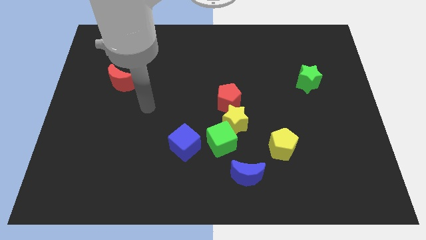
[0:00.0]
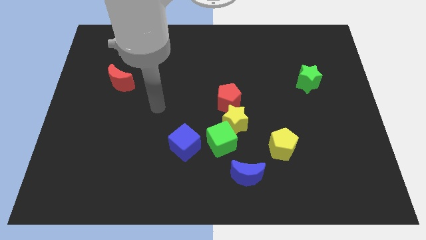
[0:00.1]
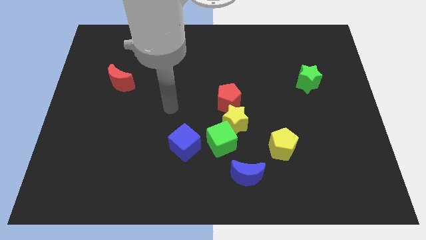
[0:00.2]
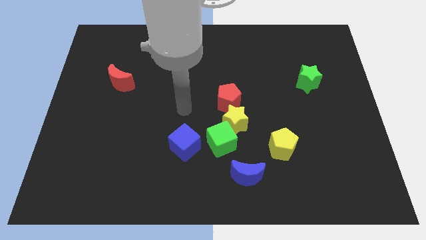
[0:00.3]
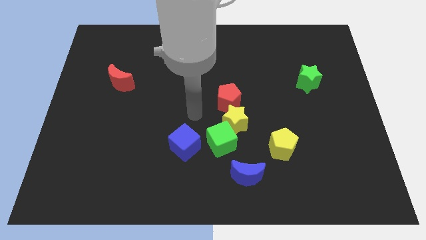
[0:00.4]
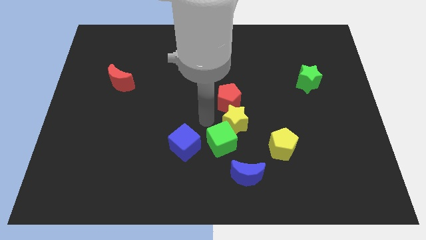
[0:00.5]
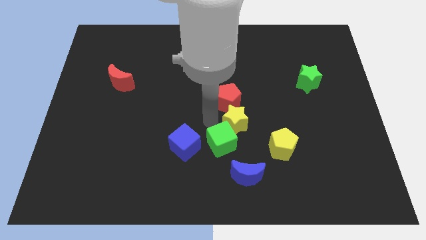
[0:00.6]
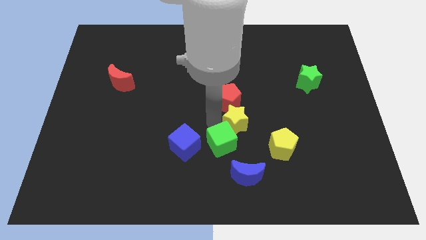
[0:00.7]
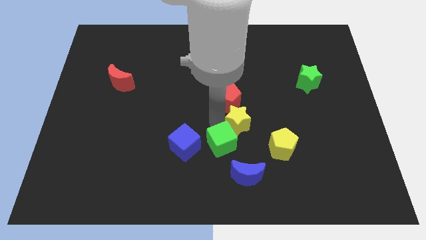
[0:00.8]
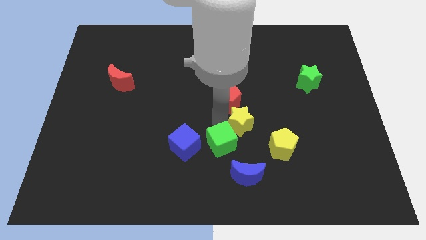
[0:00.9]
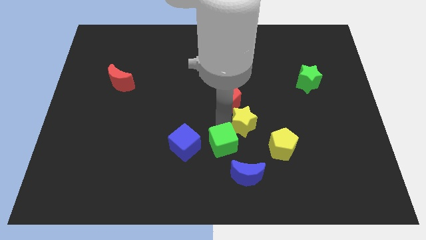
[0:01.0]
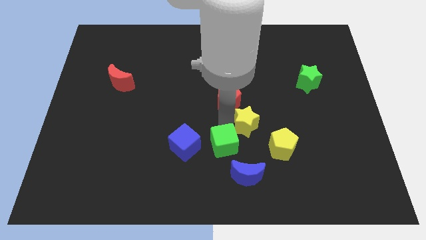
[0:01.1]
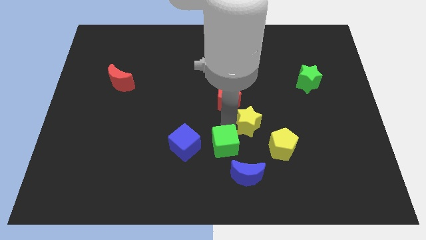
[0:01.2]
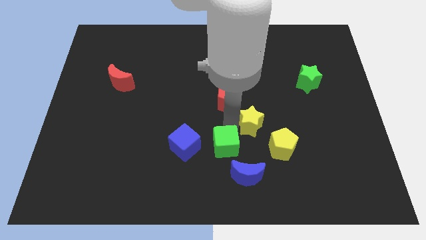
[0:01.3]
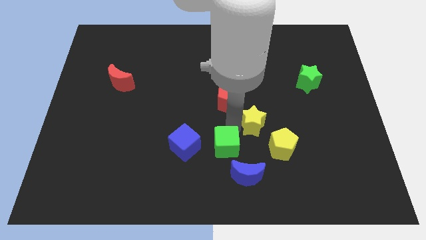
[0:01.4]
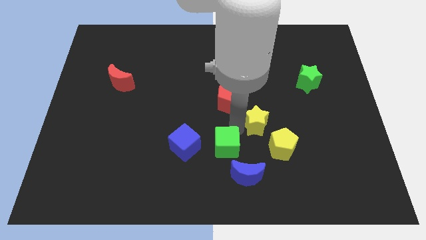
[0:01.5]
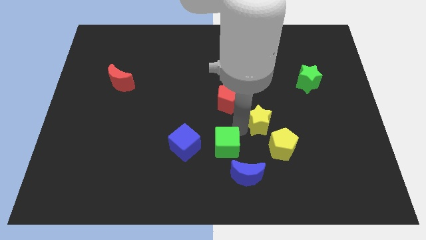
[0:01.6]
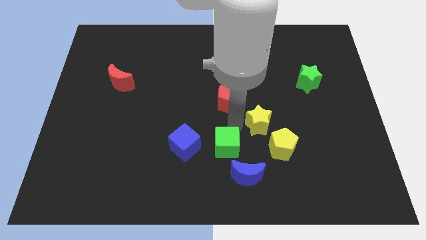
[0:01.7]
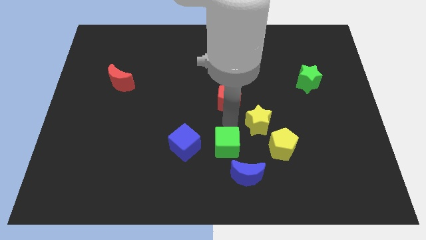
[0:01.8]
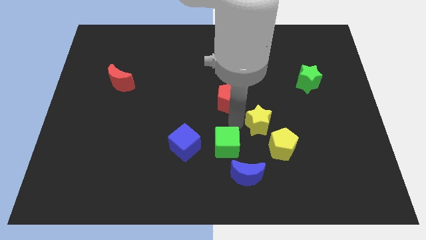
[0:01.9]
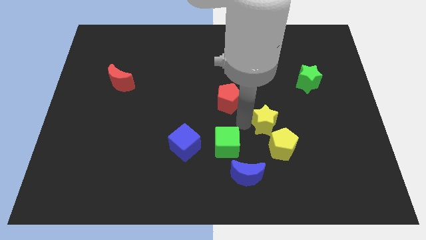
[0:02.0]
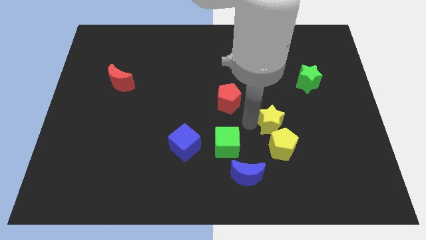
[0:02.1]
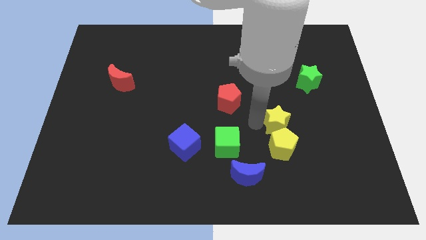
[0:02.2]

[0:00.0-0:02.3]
separate the yellow star from the green cube and red pentagon

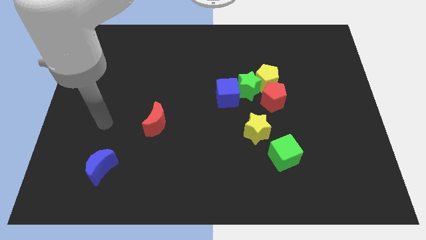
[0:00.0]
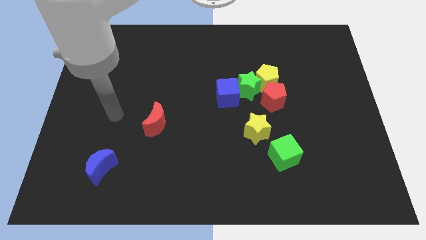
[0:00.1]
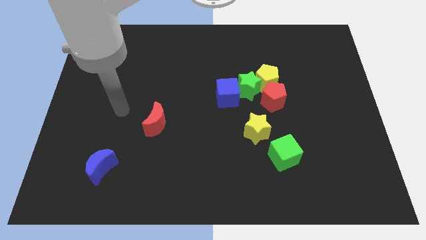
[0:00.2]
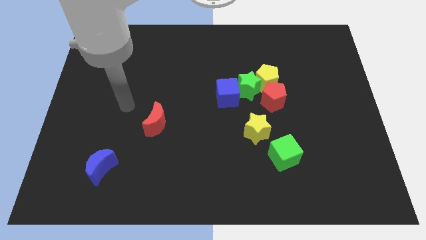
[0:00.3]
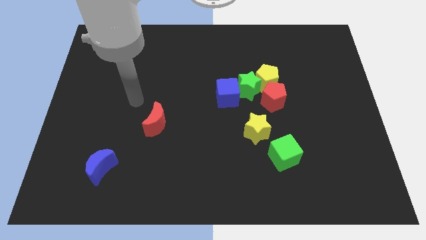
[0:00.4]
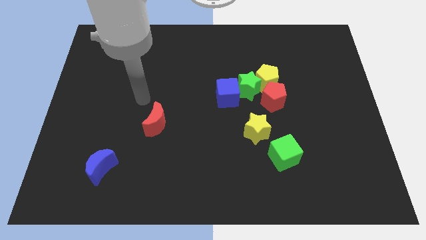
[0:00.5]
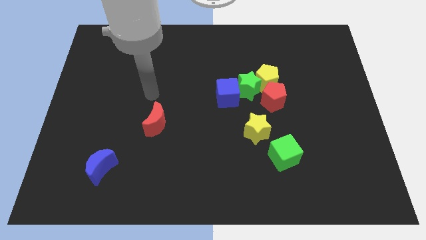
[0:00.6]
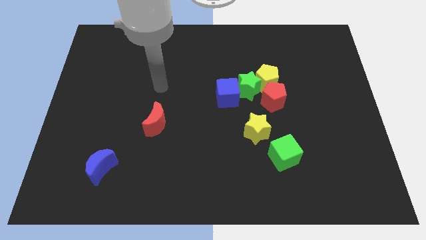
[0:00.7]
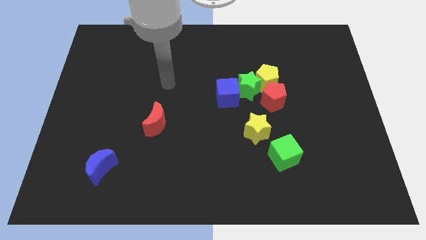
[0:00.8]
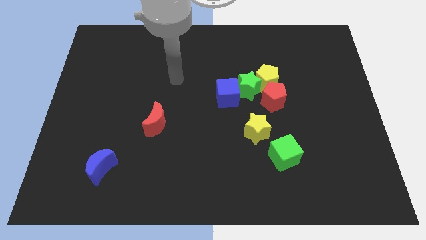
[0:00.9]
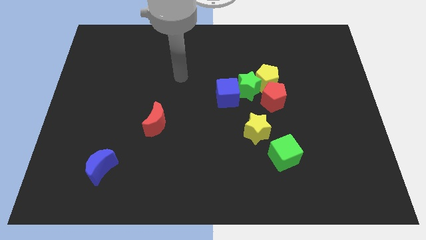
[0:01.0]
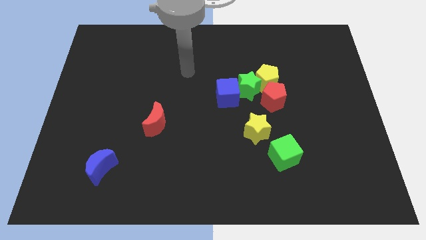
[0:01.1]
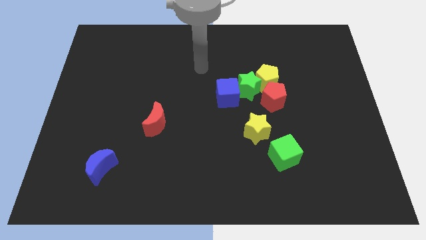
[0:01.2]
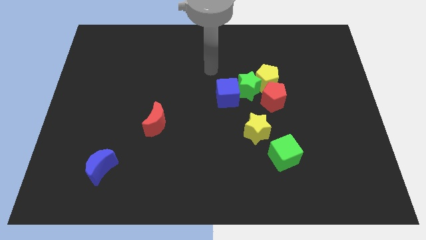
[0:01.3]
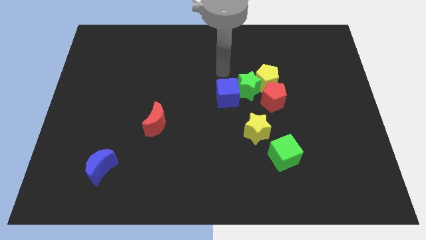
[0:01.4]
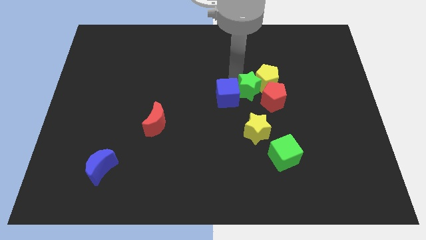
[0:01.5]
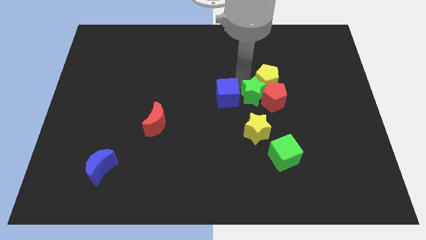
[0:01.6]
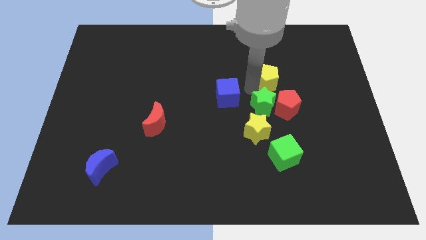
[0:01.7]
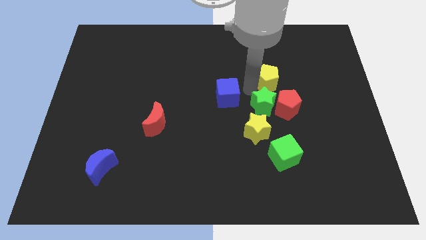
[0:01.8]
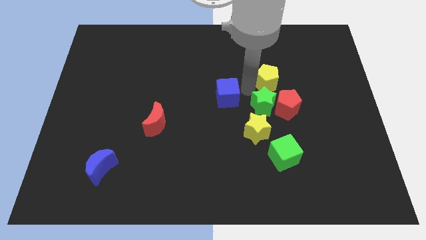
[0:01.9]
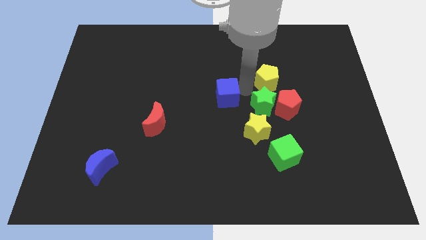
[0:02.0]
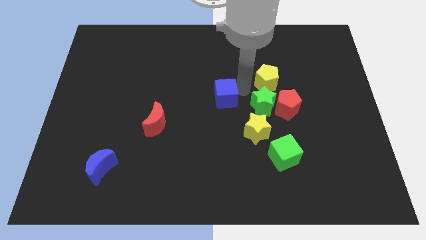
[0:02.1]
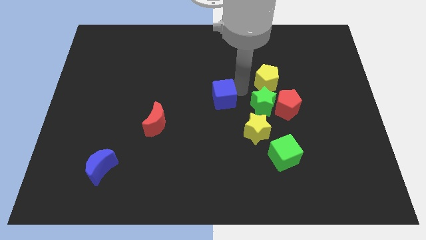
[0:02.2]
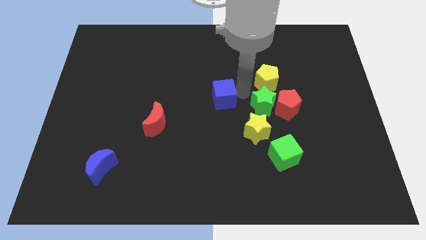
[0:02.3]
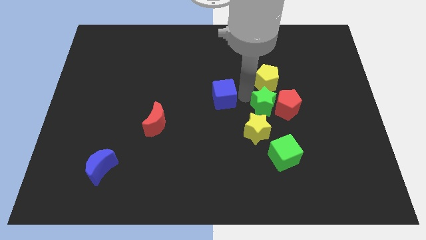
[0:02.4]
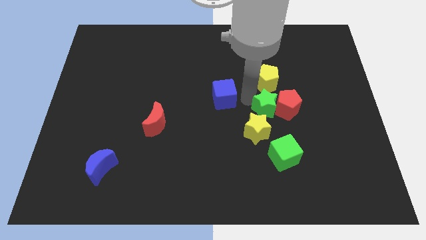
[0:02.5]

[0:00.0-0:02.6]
move the blue cube away from the green star

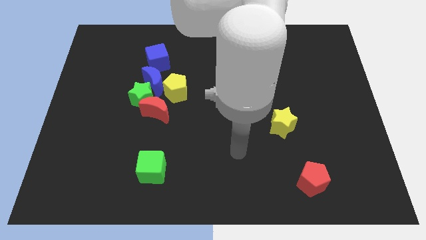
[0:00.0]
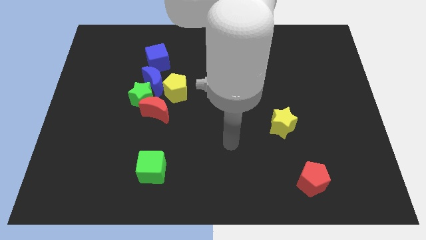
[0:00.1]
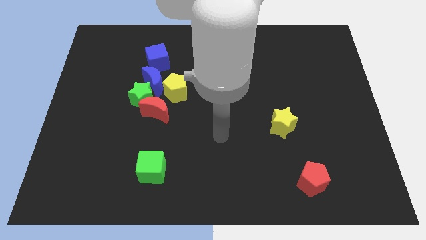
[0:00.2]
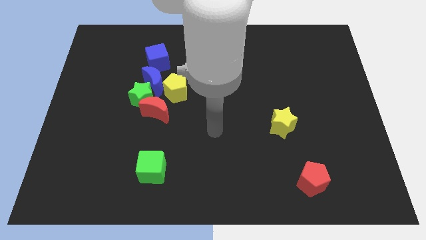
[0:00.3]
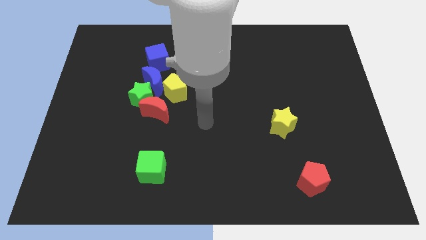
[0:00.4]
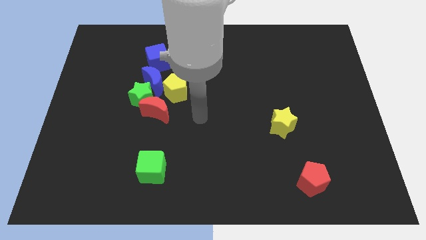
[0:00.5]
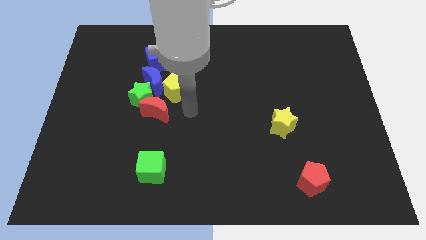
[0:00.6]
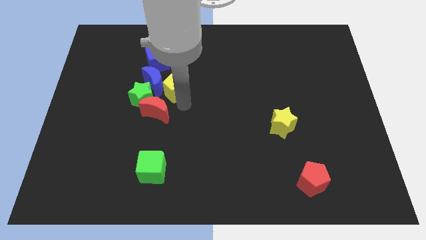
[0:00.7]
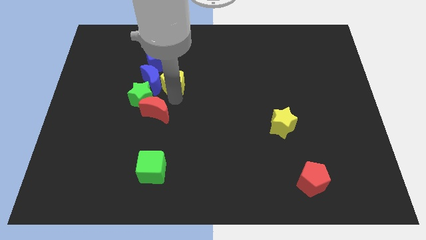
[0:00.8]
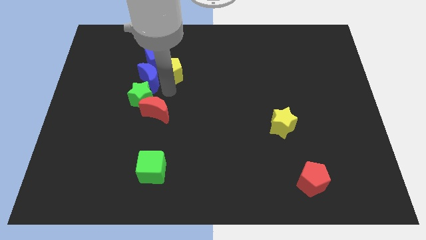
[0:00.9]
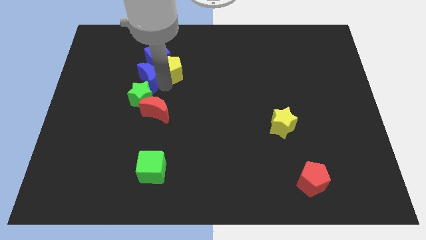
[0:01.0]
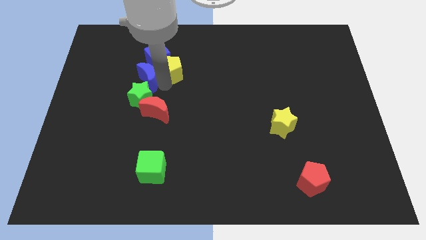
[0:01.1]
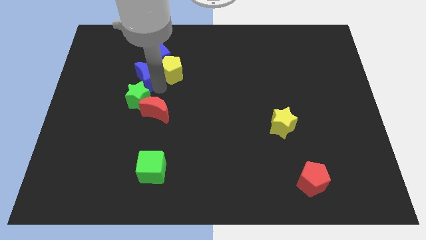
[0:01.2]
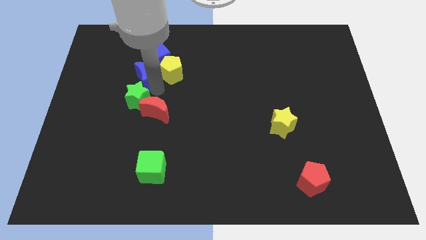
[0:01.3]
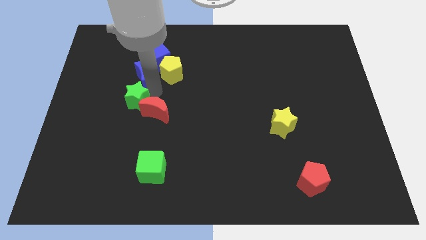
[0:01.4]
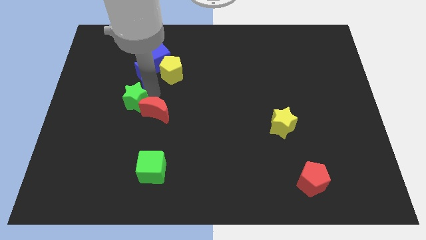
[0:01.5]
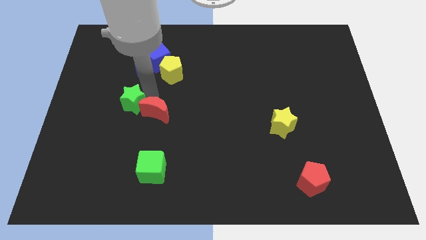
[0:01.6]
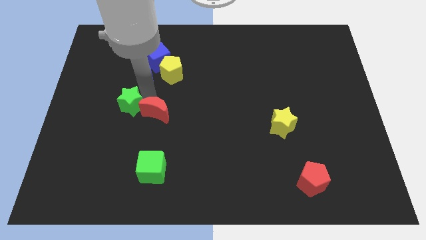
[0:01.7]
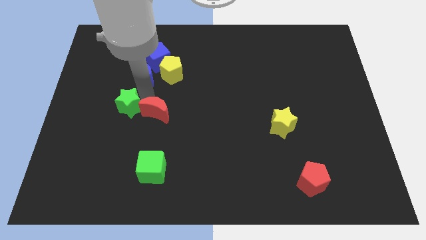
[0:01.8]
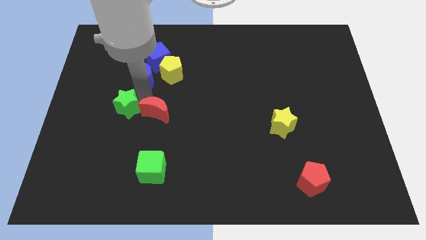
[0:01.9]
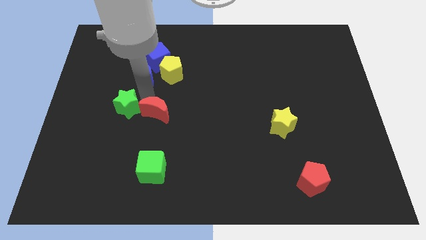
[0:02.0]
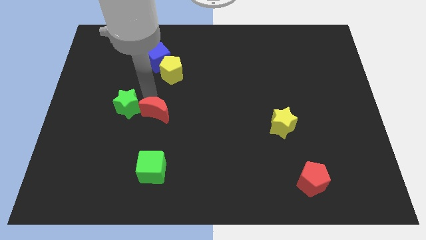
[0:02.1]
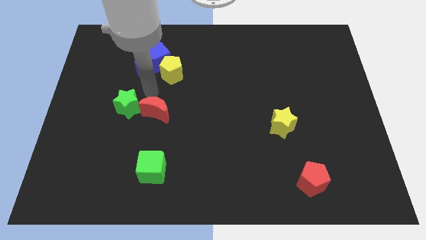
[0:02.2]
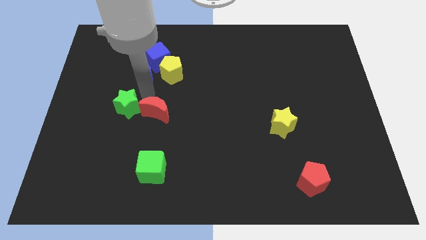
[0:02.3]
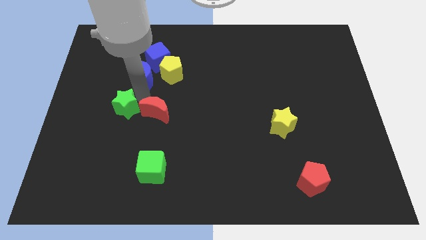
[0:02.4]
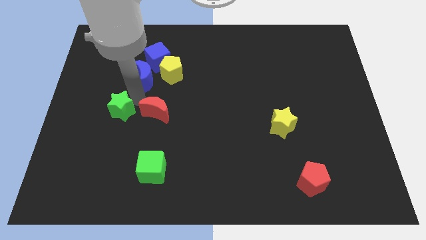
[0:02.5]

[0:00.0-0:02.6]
move the green star away from the group

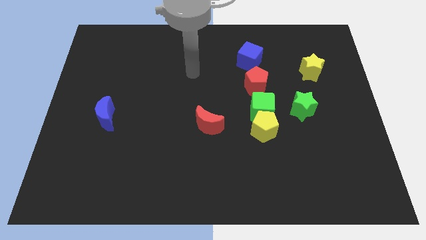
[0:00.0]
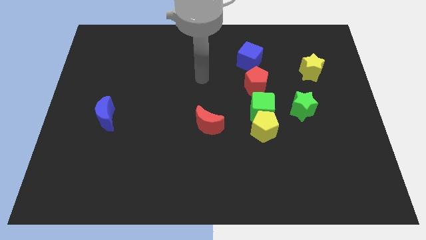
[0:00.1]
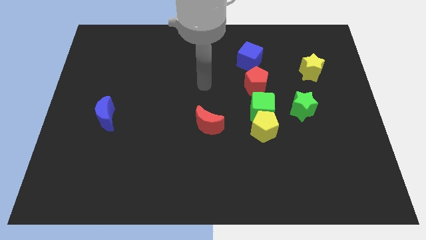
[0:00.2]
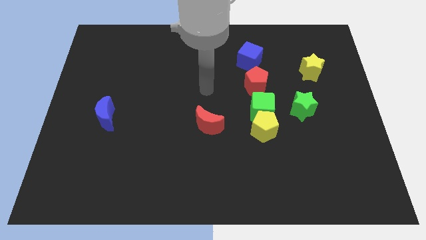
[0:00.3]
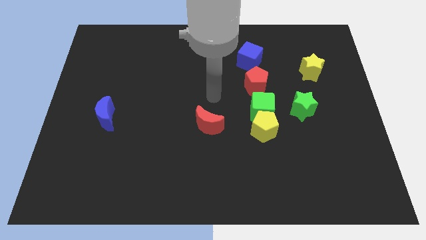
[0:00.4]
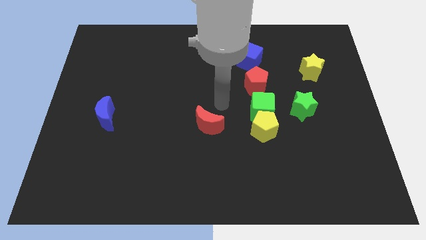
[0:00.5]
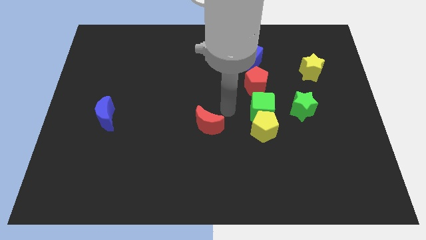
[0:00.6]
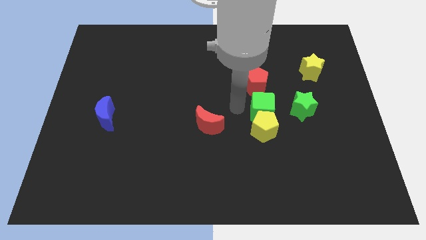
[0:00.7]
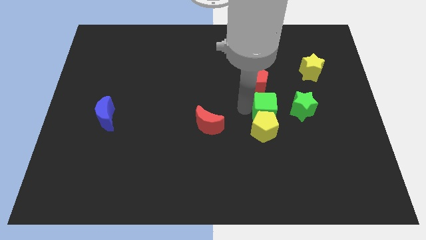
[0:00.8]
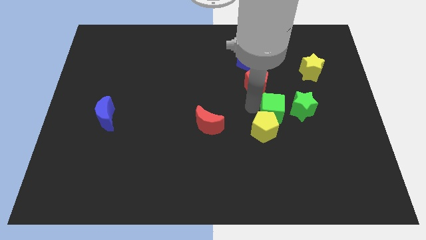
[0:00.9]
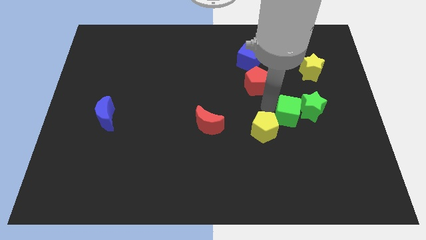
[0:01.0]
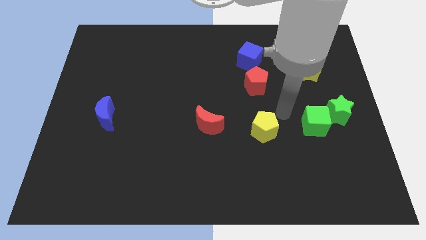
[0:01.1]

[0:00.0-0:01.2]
move the yellow pentagon away from the green cube

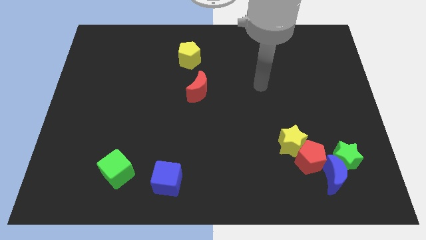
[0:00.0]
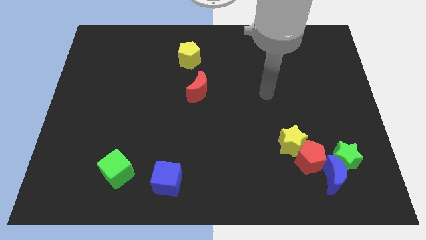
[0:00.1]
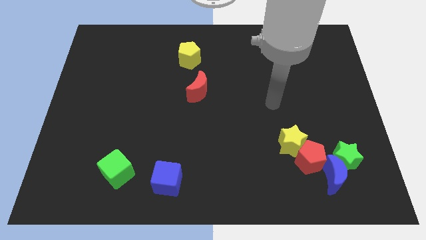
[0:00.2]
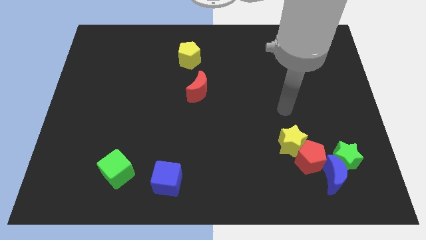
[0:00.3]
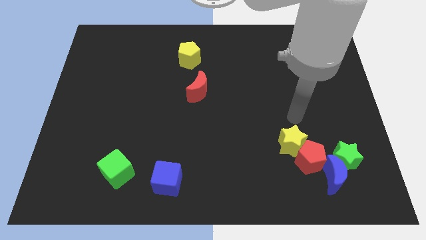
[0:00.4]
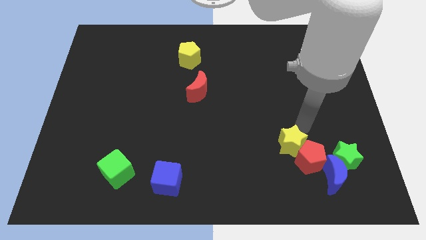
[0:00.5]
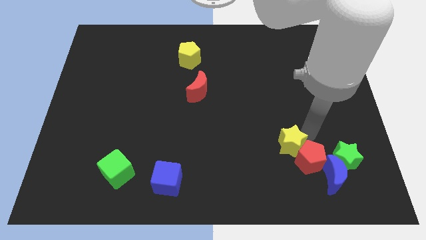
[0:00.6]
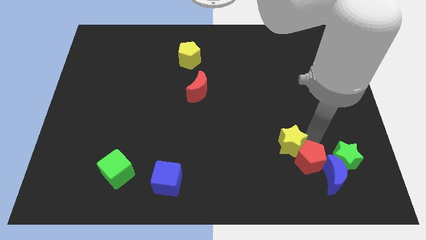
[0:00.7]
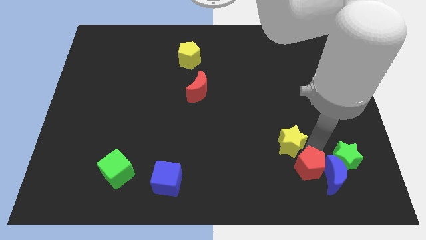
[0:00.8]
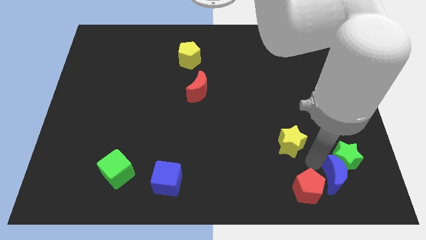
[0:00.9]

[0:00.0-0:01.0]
pull the yellow star apart from the red pentagon
